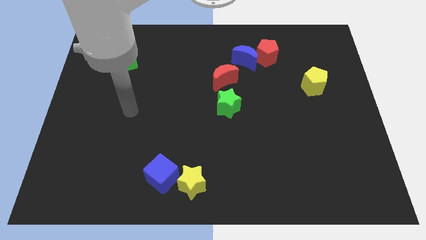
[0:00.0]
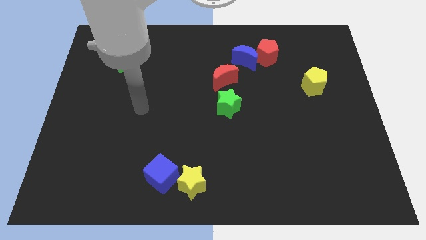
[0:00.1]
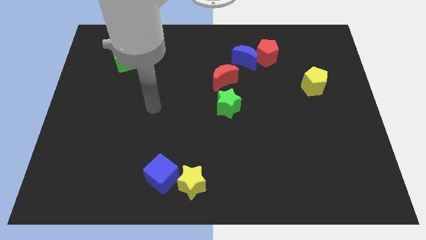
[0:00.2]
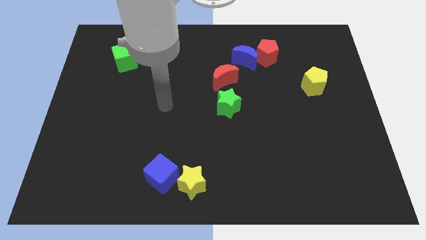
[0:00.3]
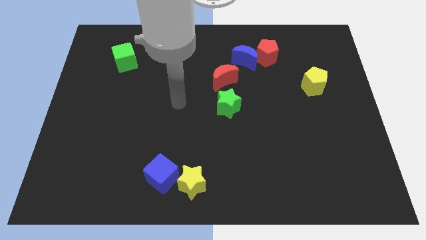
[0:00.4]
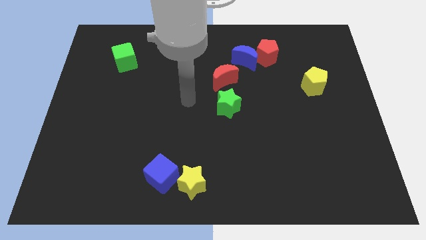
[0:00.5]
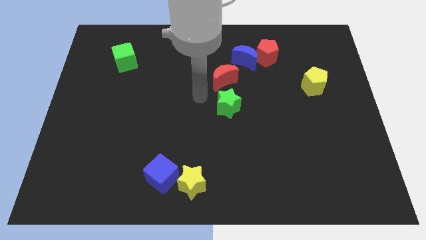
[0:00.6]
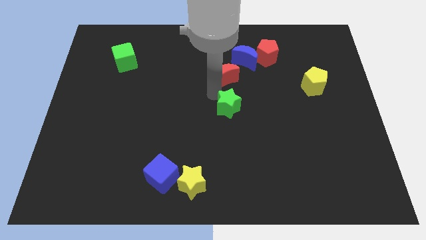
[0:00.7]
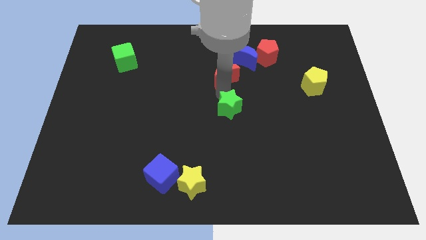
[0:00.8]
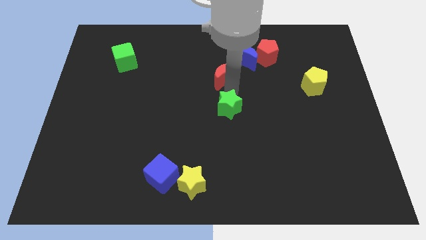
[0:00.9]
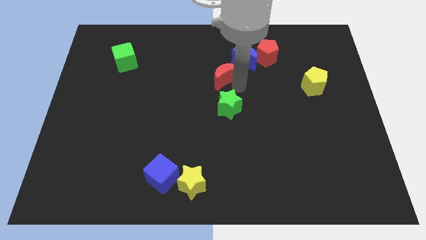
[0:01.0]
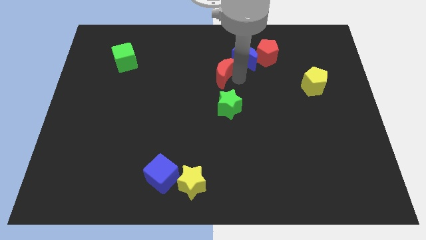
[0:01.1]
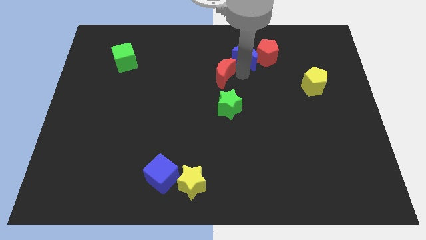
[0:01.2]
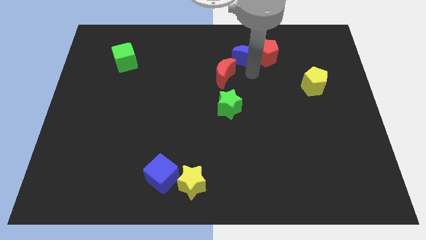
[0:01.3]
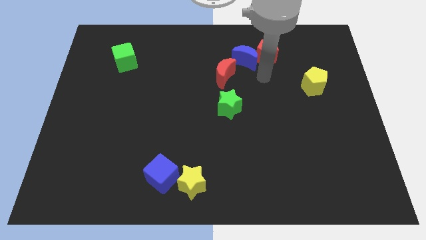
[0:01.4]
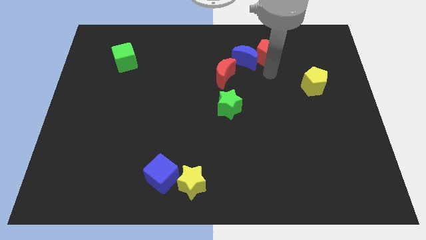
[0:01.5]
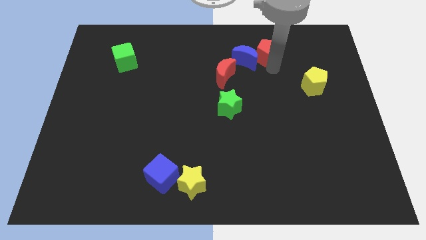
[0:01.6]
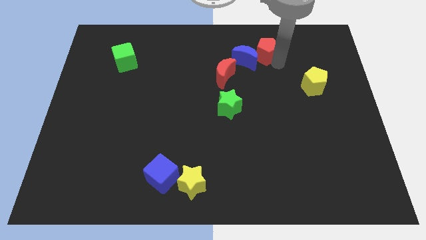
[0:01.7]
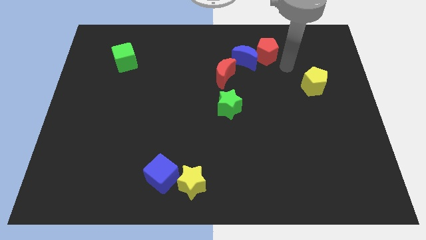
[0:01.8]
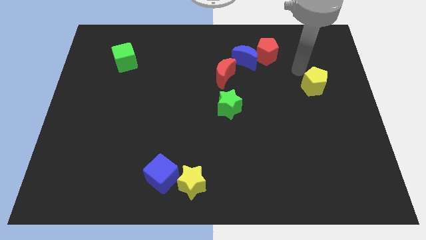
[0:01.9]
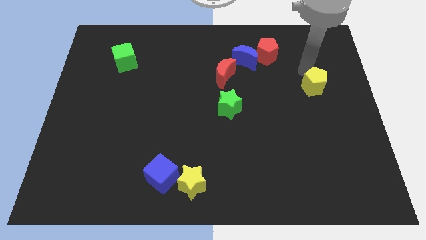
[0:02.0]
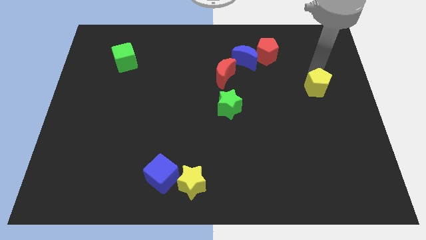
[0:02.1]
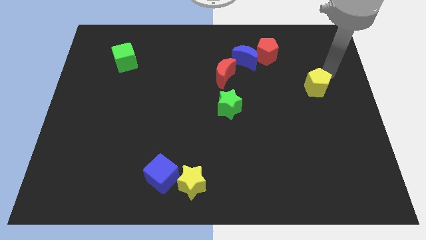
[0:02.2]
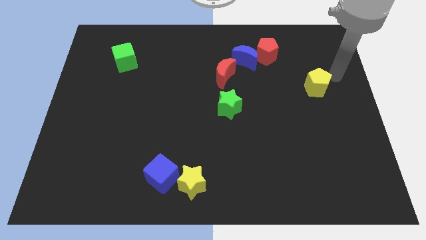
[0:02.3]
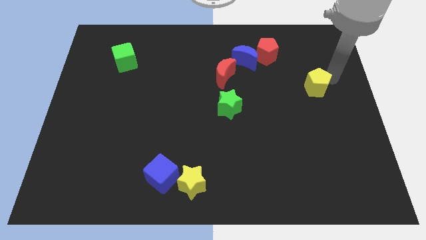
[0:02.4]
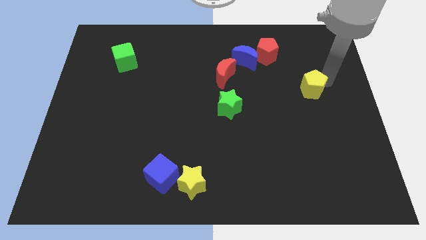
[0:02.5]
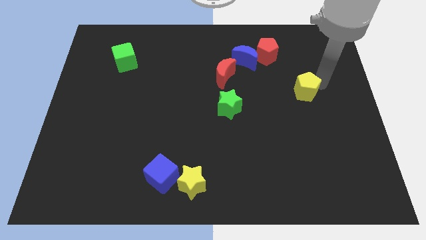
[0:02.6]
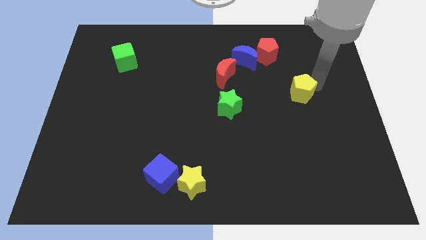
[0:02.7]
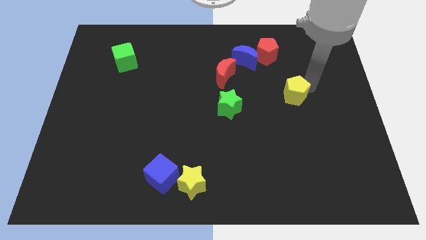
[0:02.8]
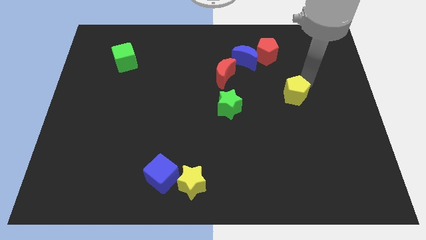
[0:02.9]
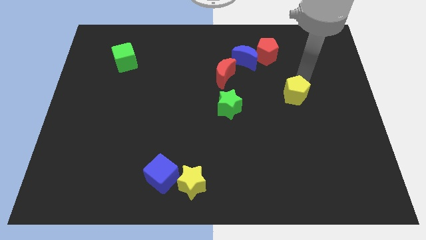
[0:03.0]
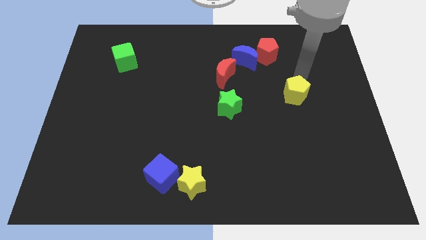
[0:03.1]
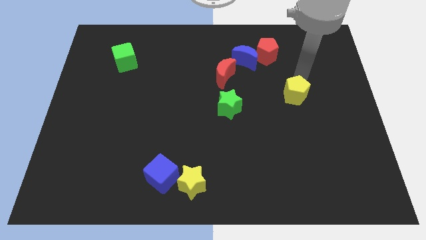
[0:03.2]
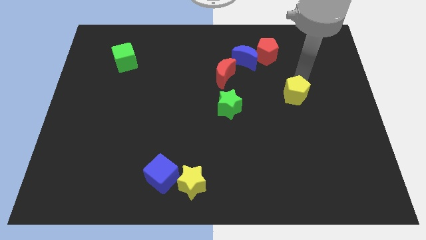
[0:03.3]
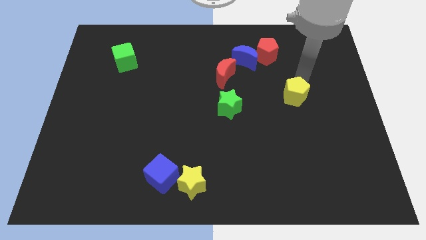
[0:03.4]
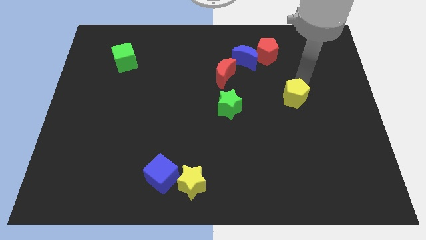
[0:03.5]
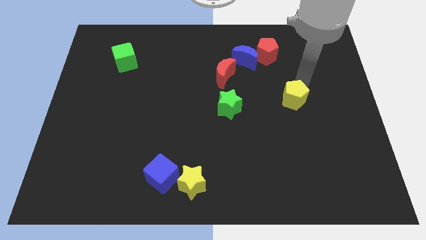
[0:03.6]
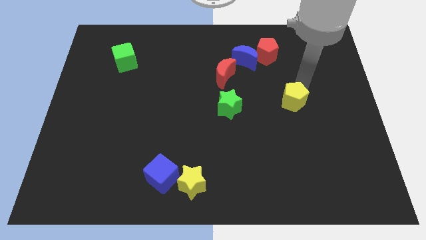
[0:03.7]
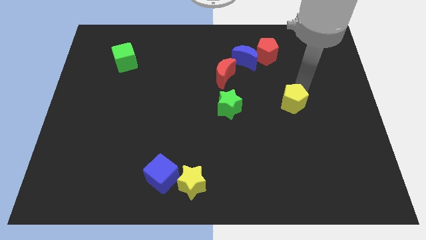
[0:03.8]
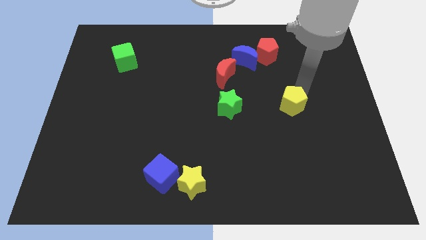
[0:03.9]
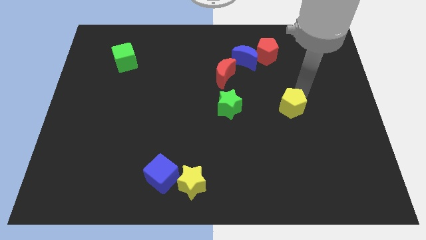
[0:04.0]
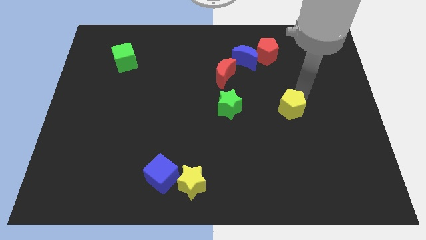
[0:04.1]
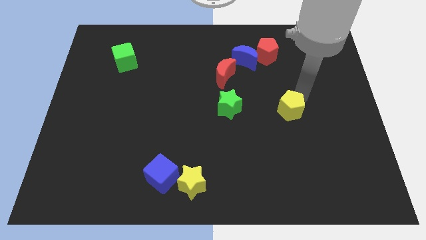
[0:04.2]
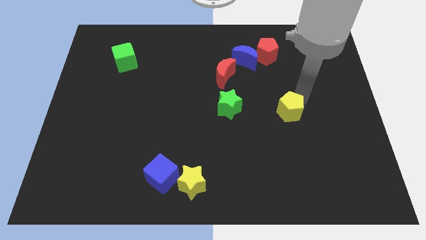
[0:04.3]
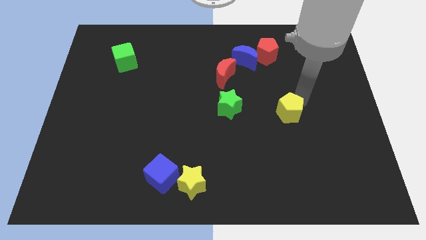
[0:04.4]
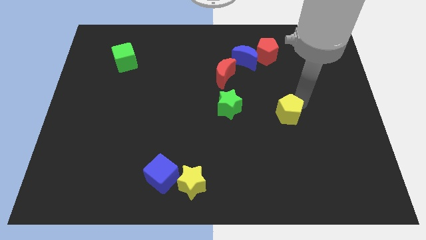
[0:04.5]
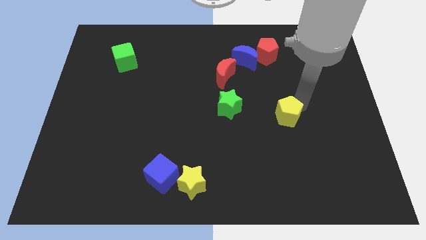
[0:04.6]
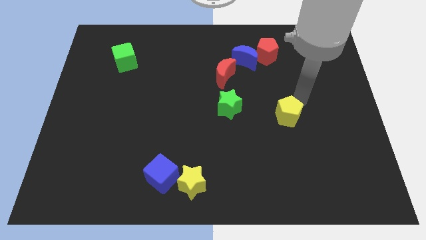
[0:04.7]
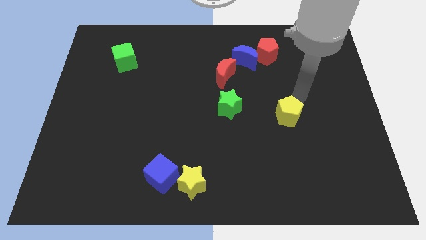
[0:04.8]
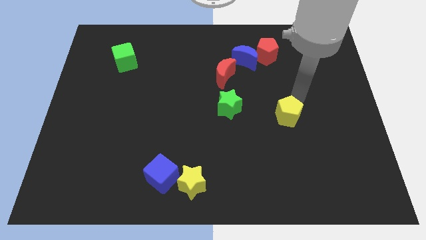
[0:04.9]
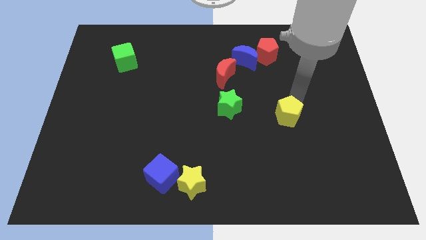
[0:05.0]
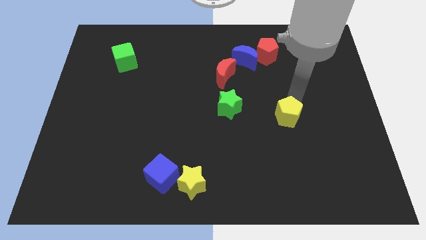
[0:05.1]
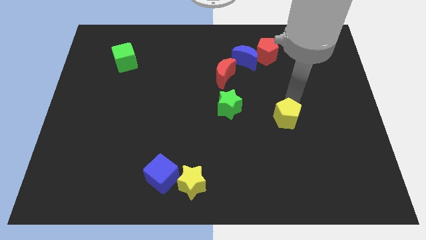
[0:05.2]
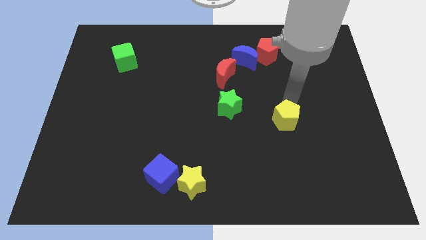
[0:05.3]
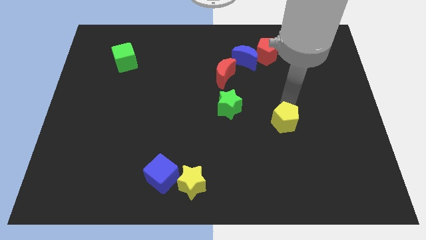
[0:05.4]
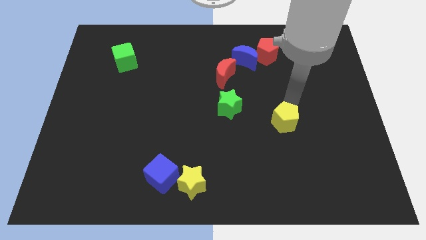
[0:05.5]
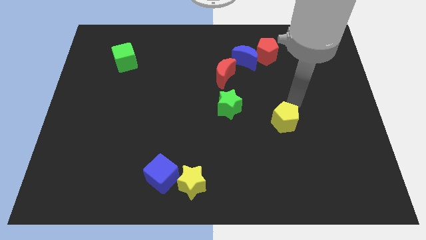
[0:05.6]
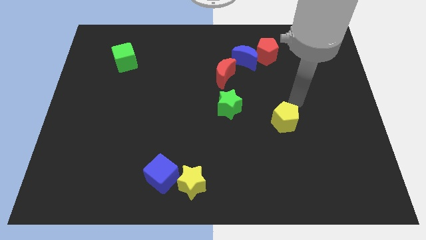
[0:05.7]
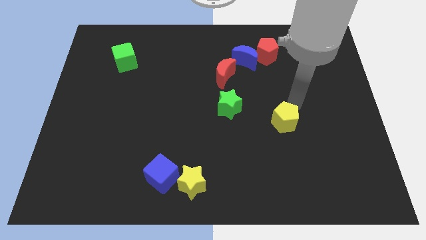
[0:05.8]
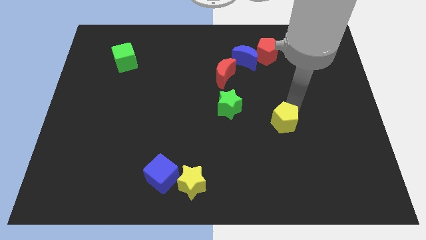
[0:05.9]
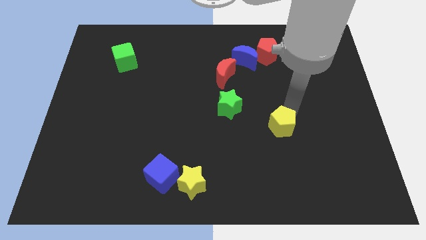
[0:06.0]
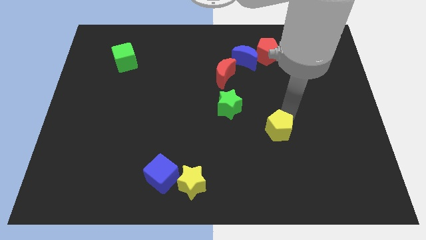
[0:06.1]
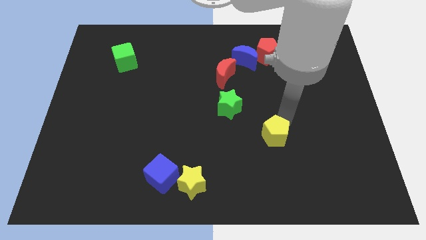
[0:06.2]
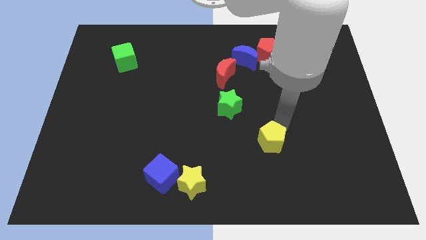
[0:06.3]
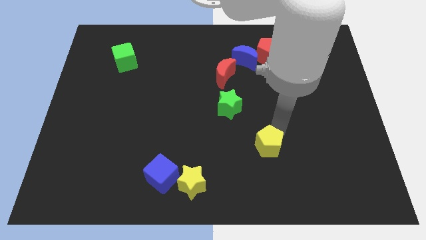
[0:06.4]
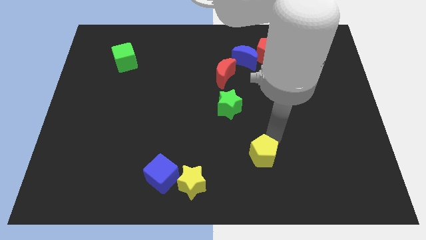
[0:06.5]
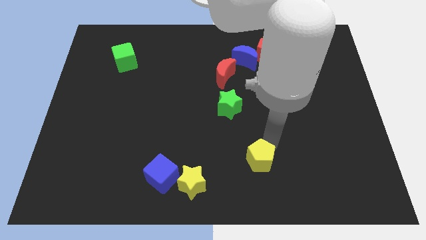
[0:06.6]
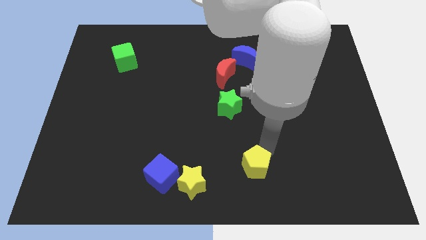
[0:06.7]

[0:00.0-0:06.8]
slide the yellow pentagon to the bottom

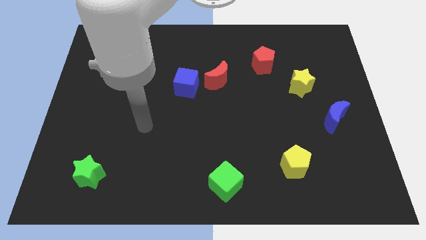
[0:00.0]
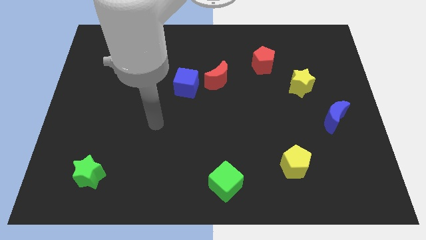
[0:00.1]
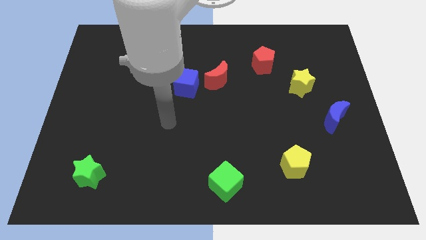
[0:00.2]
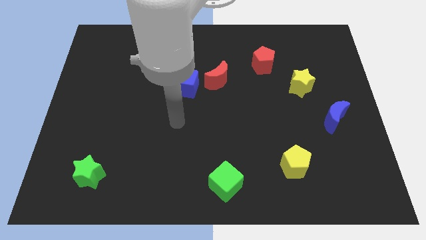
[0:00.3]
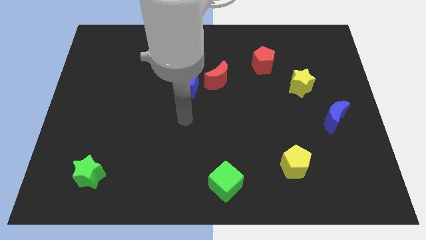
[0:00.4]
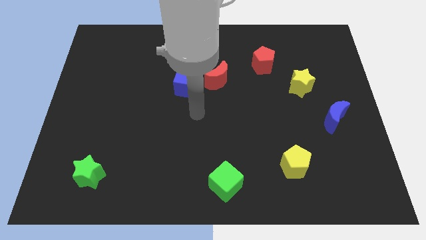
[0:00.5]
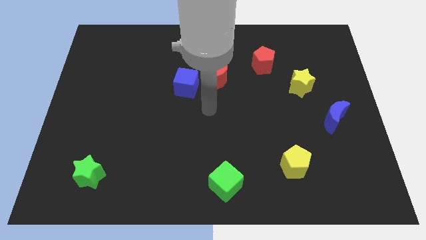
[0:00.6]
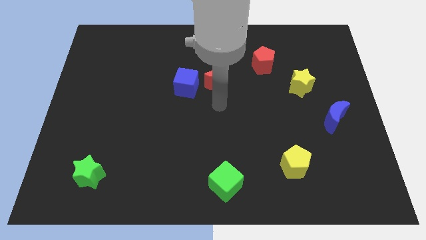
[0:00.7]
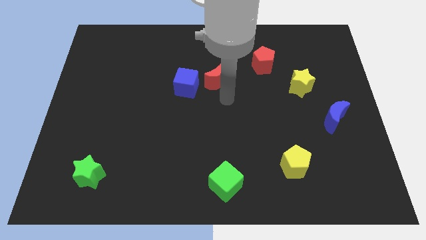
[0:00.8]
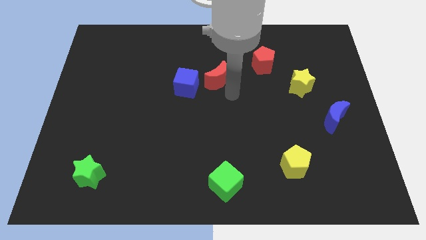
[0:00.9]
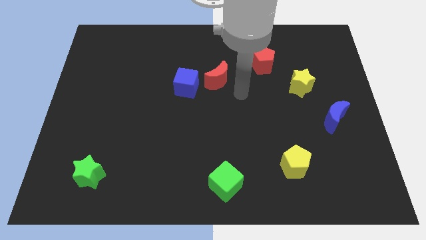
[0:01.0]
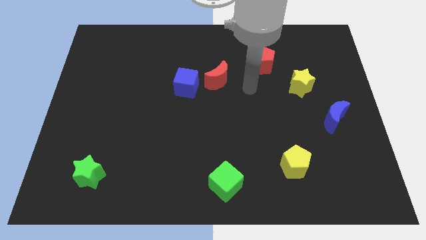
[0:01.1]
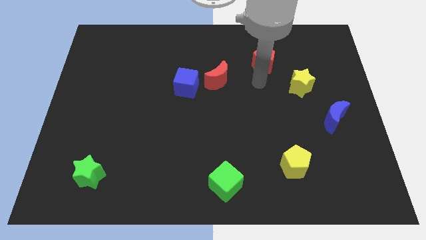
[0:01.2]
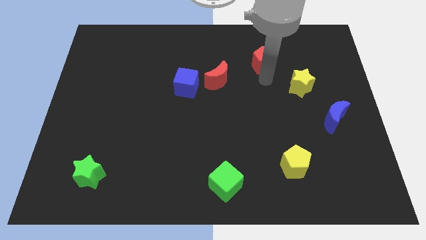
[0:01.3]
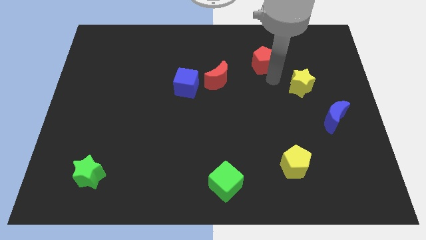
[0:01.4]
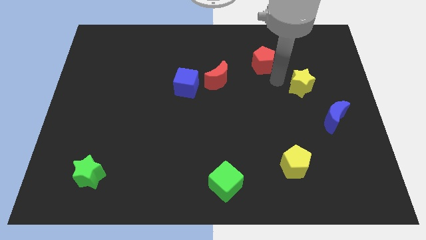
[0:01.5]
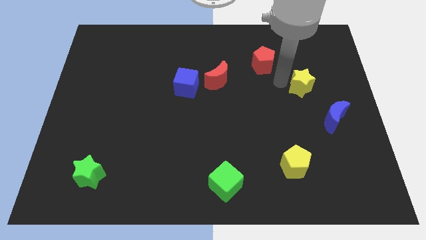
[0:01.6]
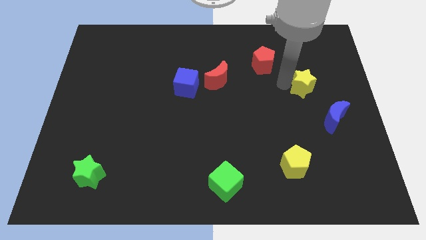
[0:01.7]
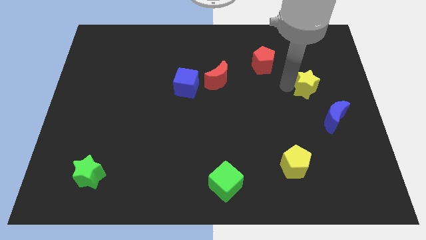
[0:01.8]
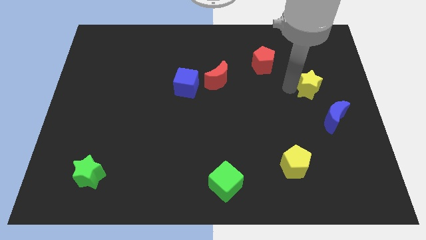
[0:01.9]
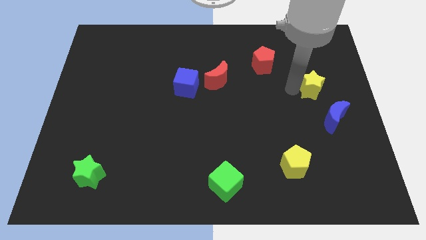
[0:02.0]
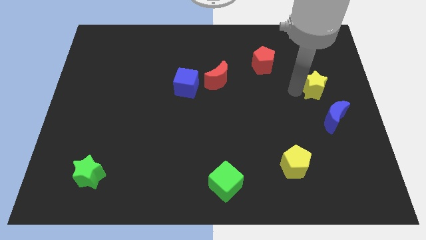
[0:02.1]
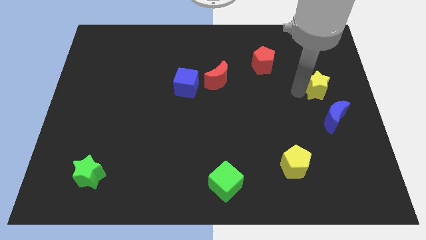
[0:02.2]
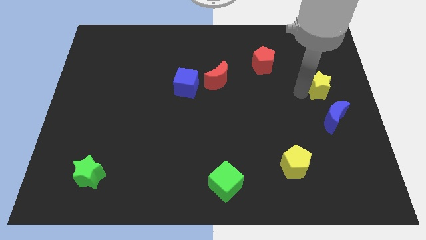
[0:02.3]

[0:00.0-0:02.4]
move the yellow star to the right side of the board
